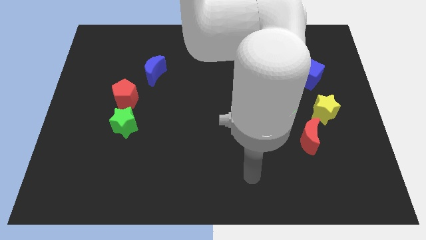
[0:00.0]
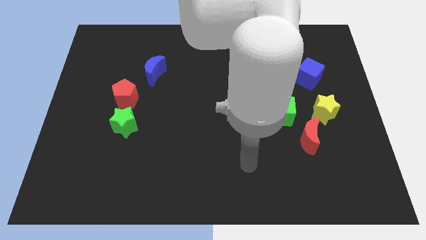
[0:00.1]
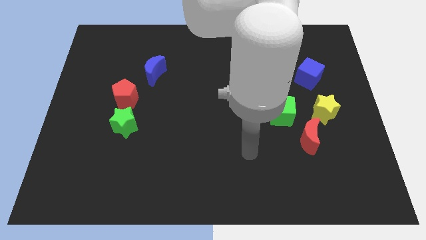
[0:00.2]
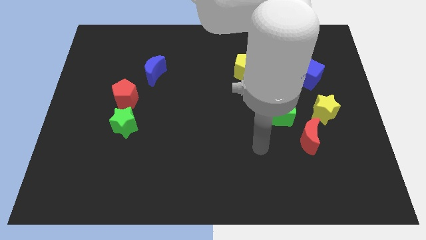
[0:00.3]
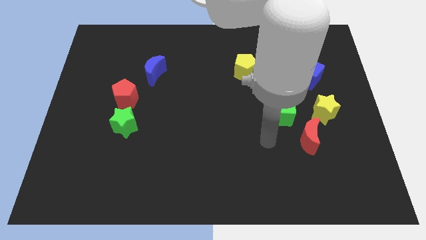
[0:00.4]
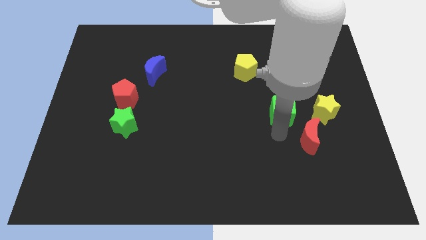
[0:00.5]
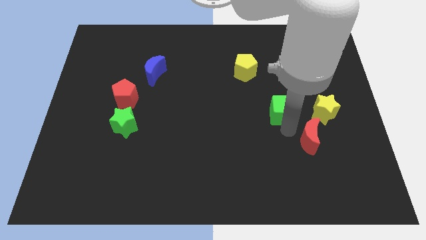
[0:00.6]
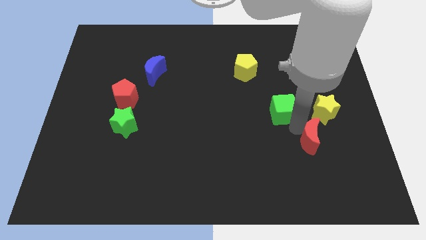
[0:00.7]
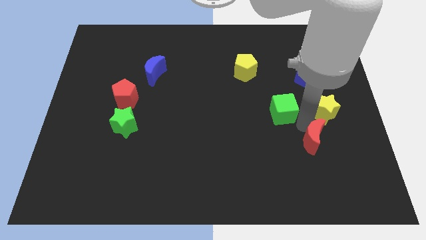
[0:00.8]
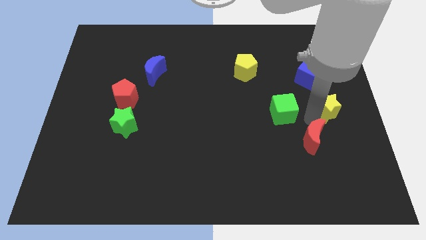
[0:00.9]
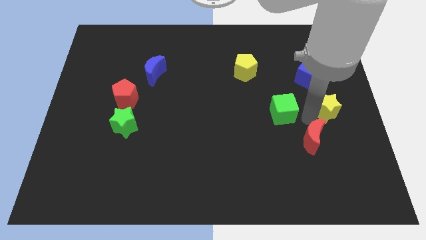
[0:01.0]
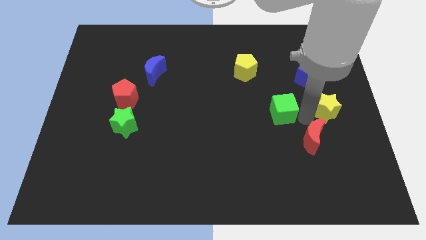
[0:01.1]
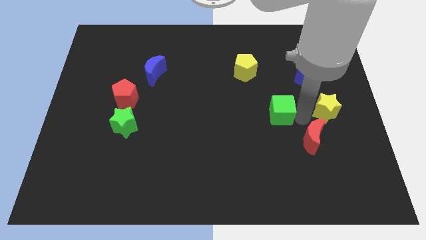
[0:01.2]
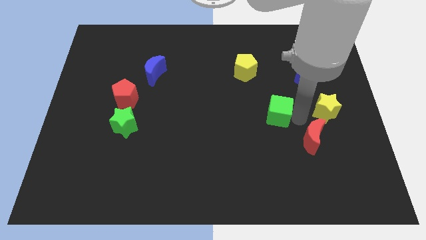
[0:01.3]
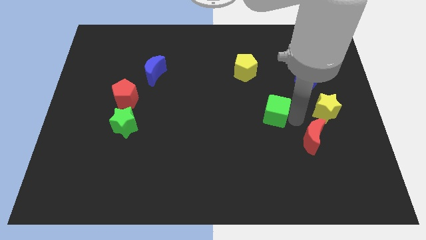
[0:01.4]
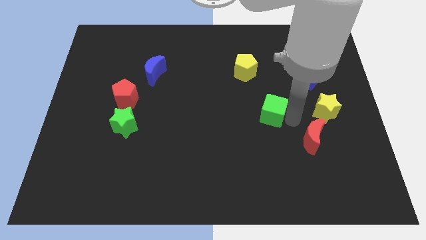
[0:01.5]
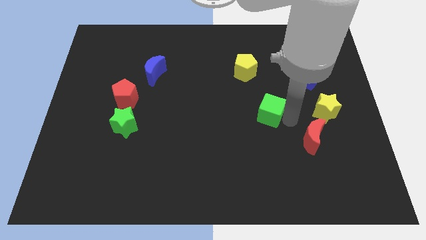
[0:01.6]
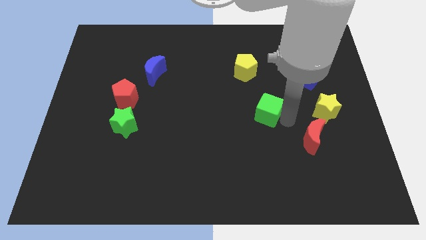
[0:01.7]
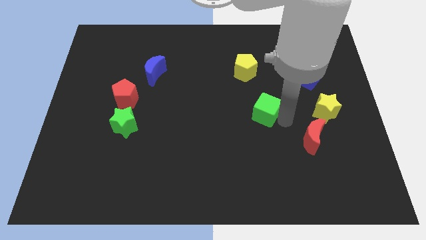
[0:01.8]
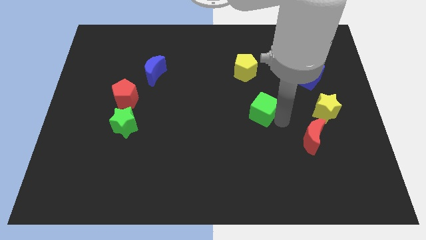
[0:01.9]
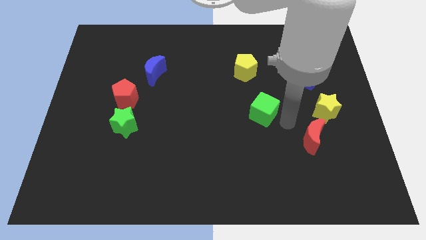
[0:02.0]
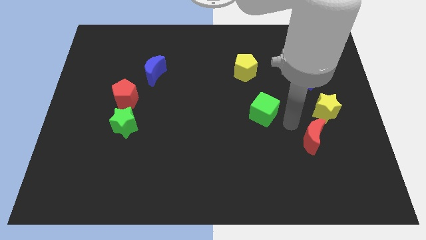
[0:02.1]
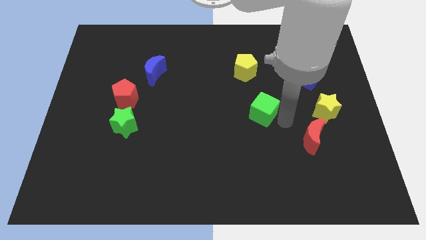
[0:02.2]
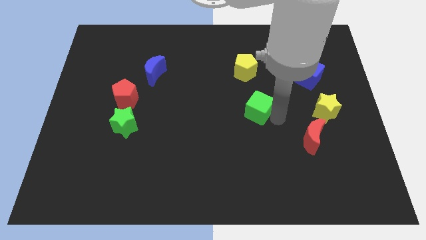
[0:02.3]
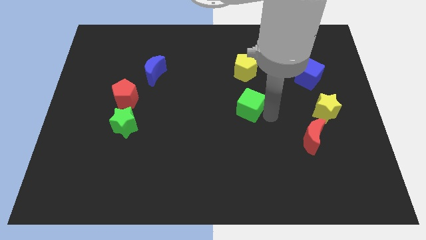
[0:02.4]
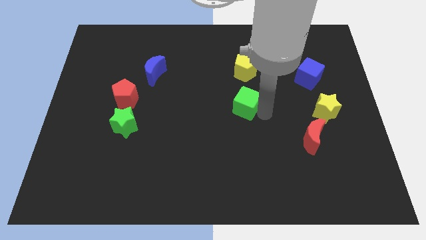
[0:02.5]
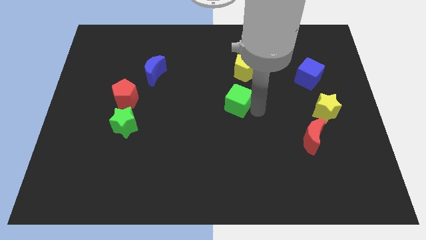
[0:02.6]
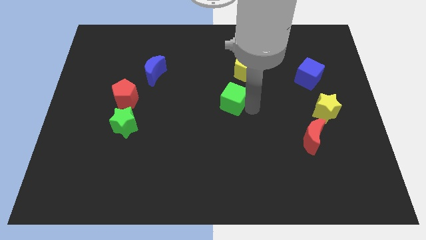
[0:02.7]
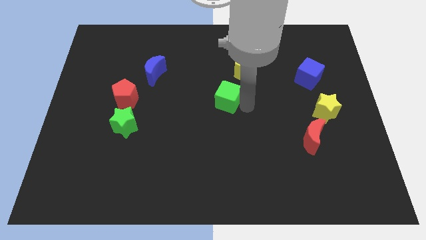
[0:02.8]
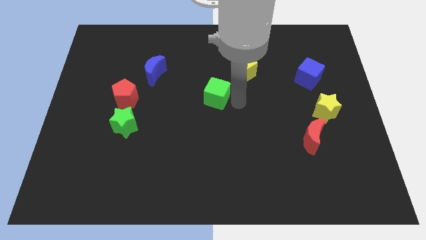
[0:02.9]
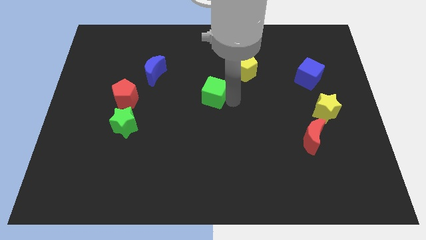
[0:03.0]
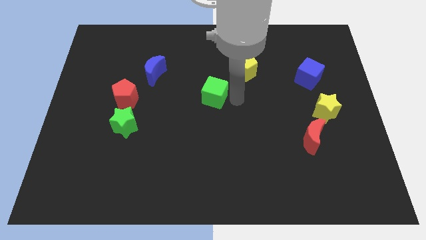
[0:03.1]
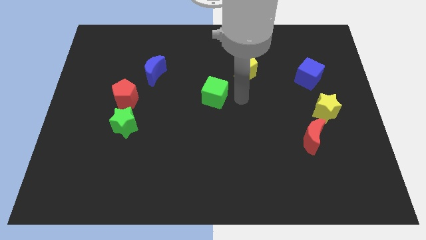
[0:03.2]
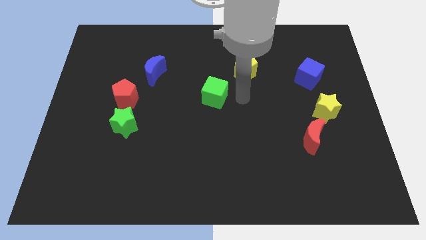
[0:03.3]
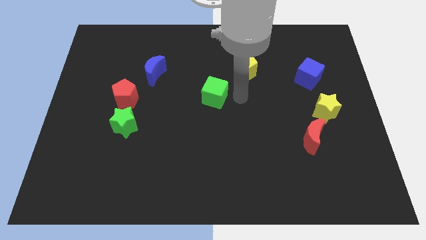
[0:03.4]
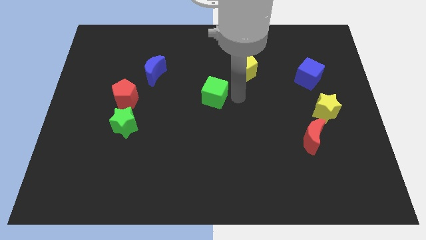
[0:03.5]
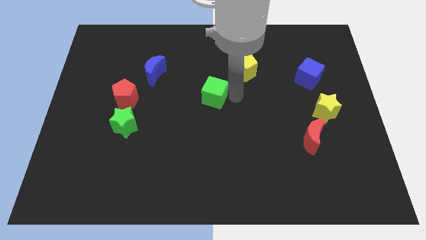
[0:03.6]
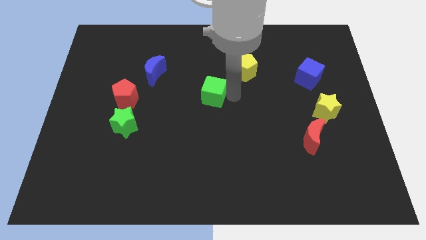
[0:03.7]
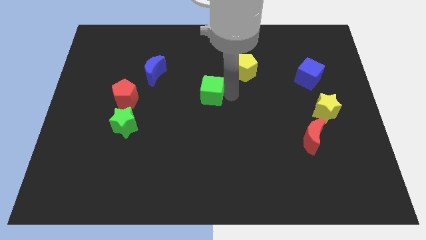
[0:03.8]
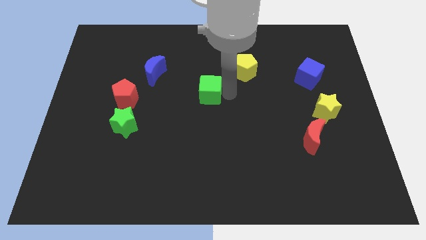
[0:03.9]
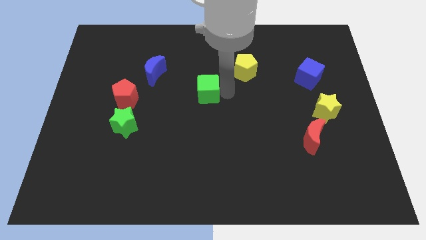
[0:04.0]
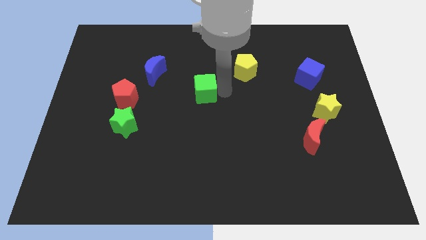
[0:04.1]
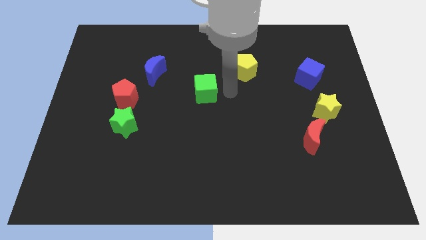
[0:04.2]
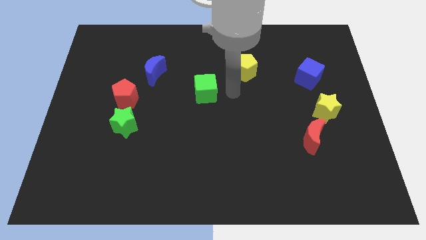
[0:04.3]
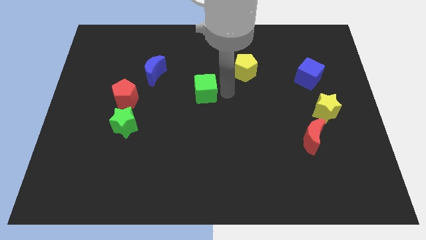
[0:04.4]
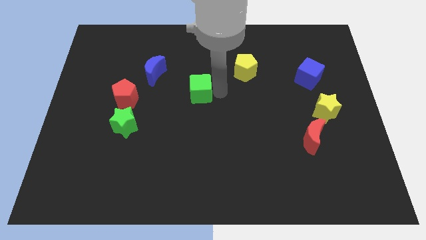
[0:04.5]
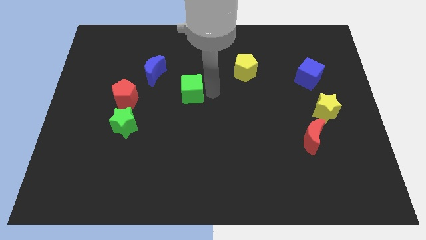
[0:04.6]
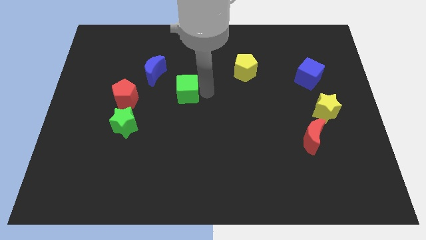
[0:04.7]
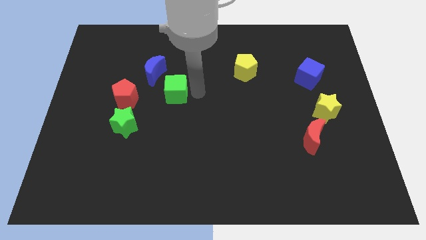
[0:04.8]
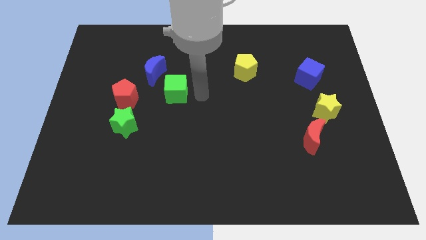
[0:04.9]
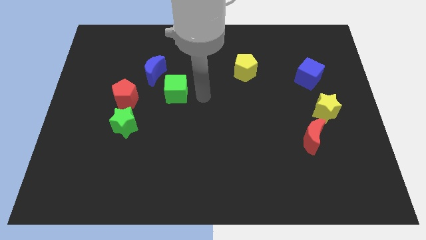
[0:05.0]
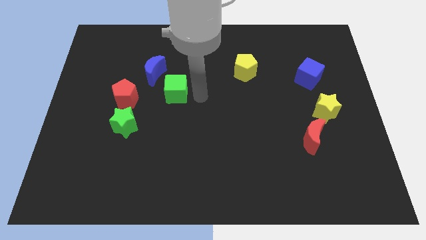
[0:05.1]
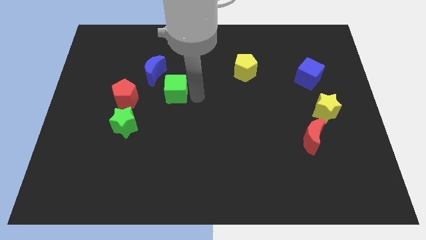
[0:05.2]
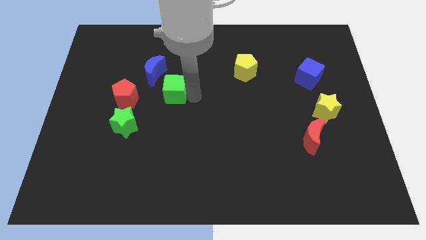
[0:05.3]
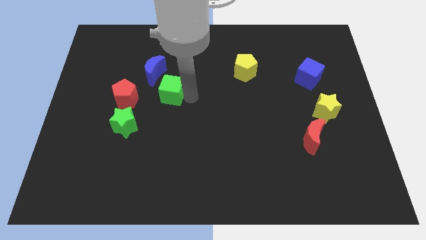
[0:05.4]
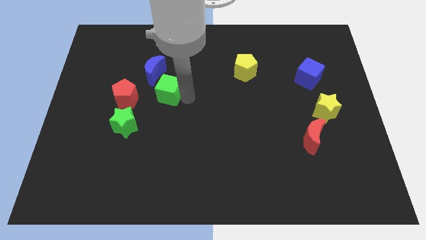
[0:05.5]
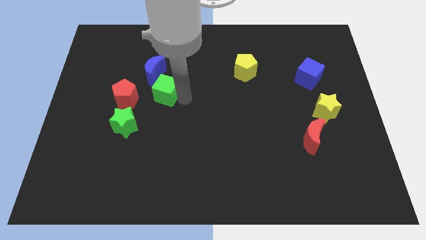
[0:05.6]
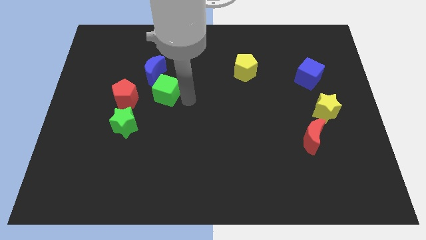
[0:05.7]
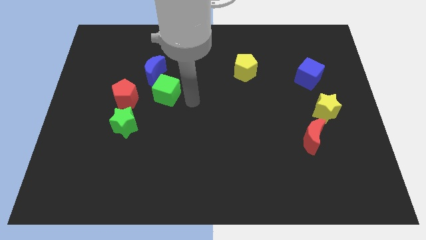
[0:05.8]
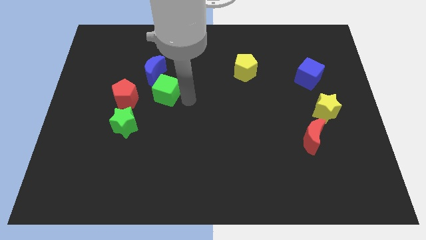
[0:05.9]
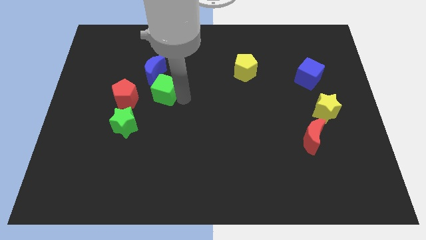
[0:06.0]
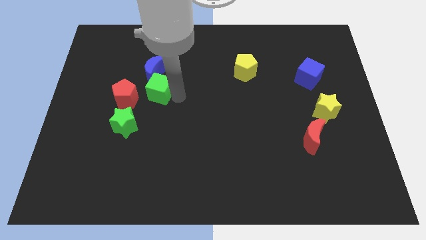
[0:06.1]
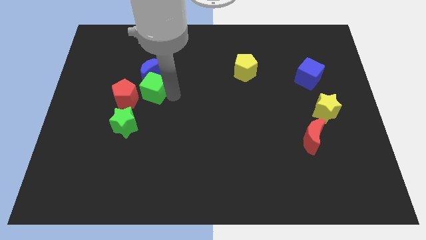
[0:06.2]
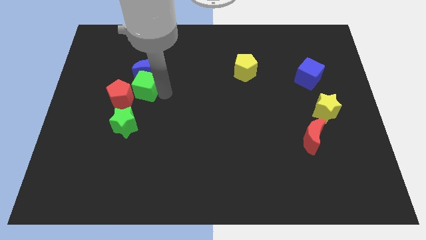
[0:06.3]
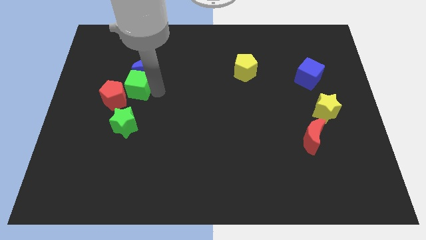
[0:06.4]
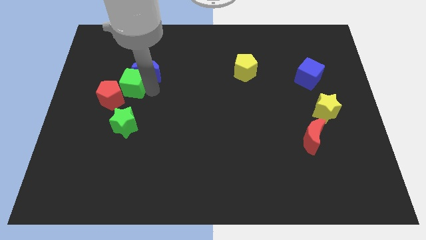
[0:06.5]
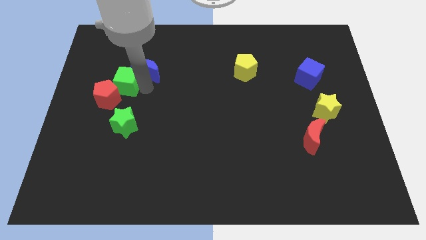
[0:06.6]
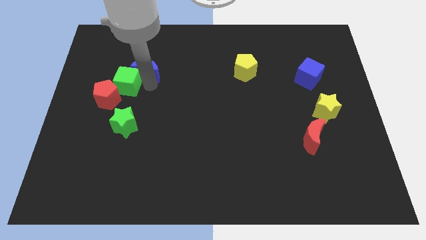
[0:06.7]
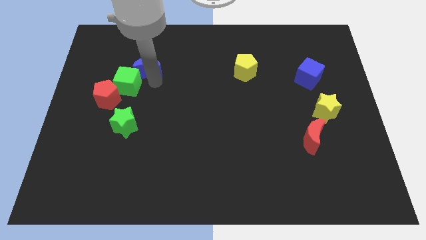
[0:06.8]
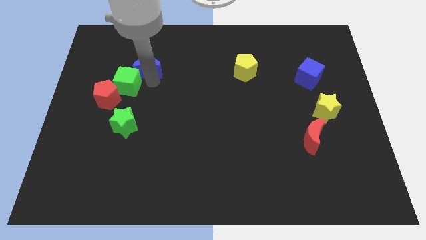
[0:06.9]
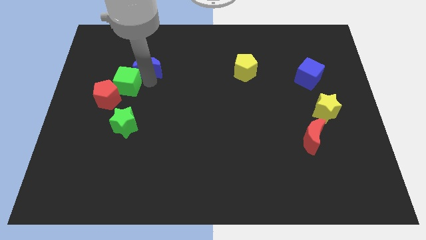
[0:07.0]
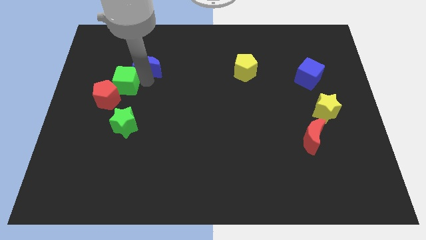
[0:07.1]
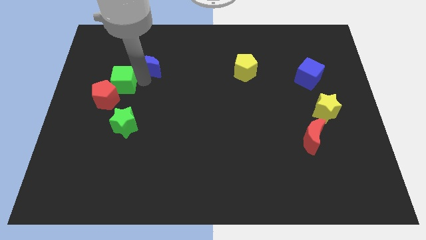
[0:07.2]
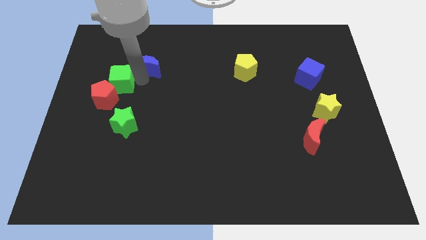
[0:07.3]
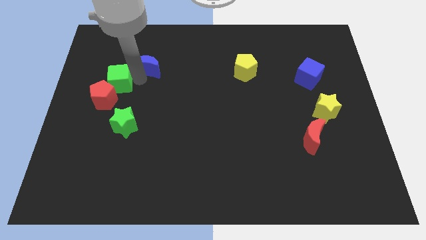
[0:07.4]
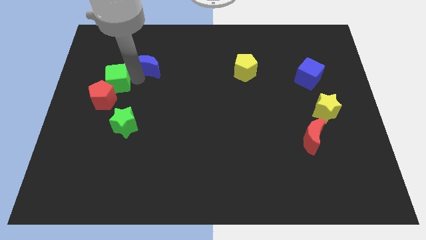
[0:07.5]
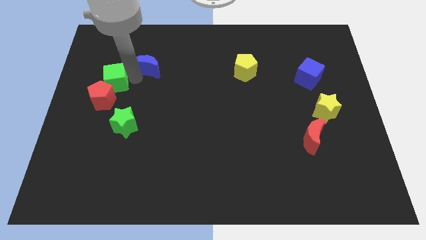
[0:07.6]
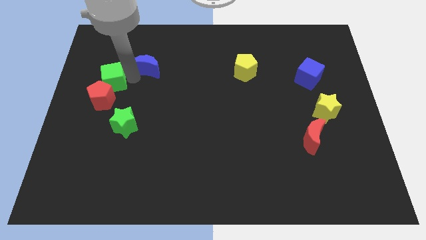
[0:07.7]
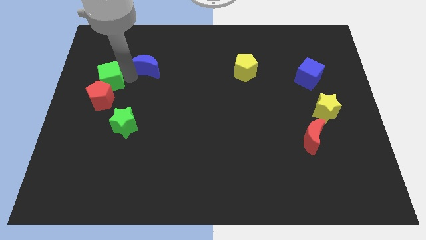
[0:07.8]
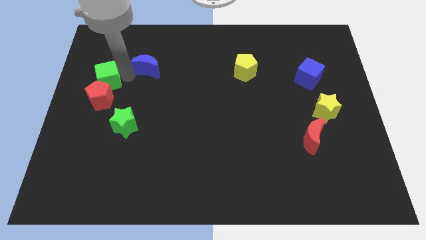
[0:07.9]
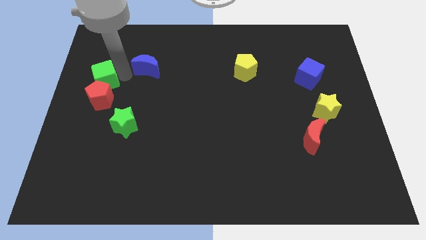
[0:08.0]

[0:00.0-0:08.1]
put the green cube to the left side
